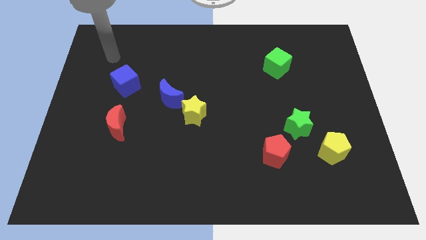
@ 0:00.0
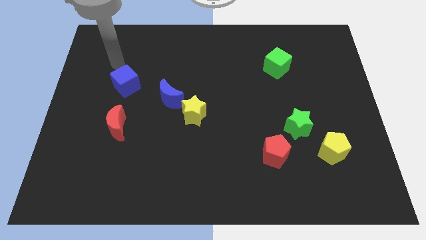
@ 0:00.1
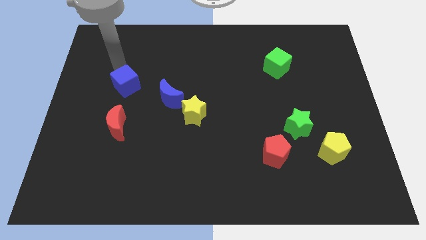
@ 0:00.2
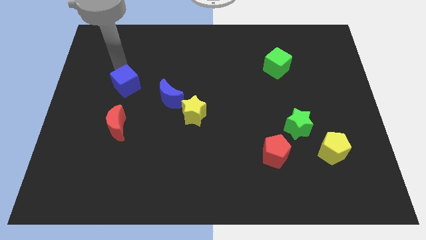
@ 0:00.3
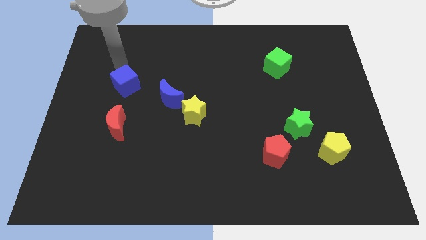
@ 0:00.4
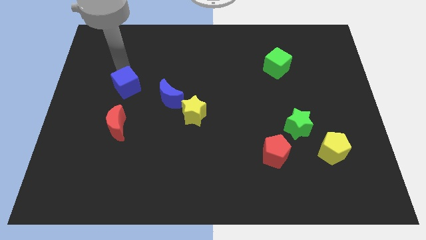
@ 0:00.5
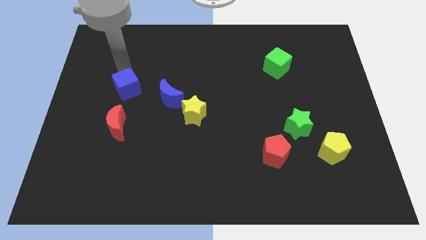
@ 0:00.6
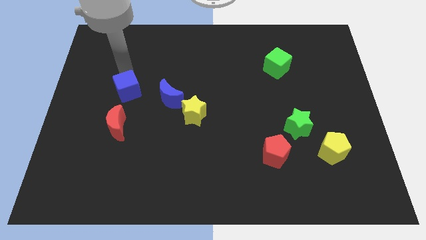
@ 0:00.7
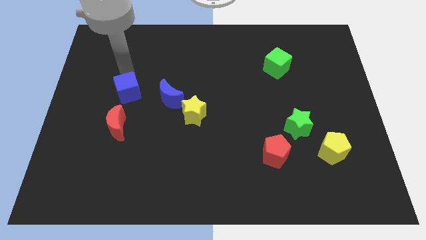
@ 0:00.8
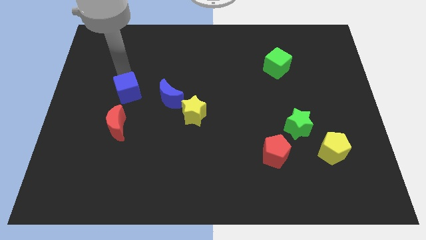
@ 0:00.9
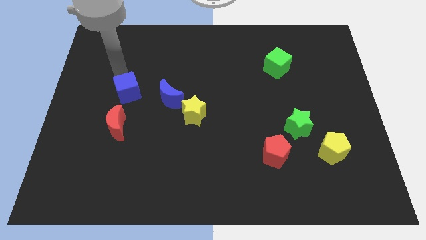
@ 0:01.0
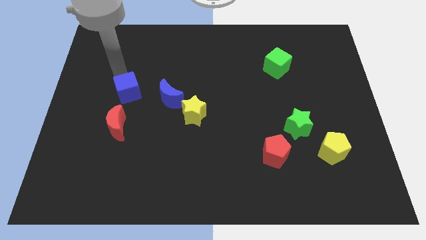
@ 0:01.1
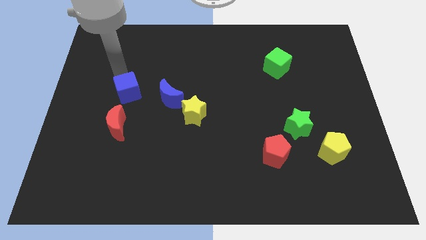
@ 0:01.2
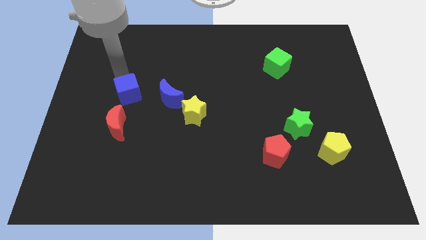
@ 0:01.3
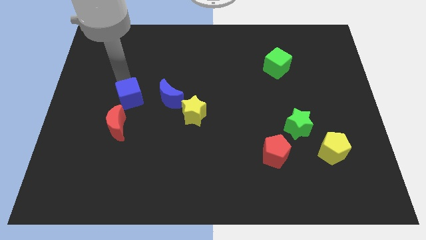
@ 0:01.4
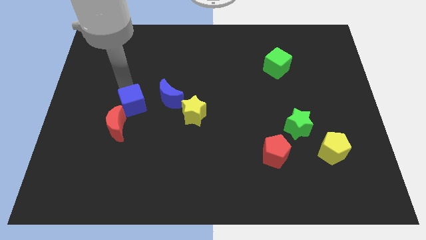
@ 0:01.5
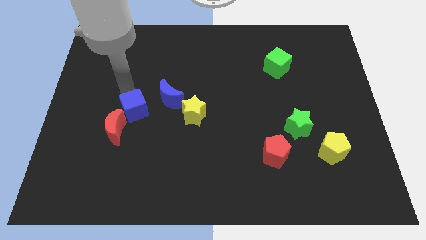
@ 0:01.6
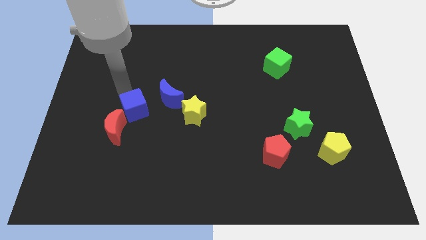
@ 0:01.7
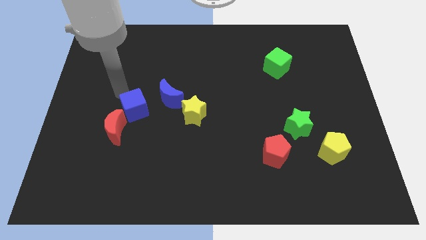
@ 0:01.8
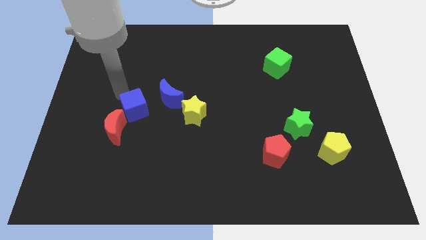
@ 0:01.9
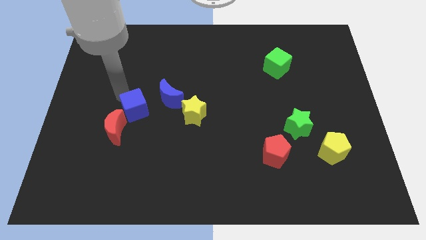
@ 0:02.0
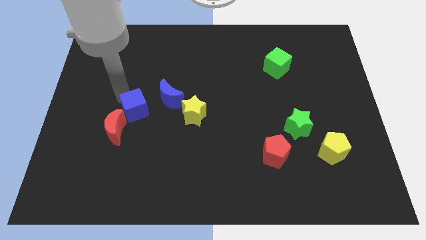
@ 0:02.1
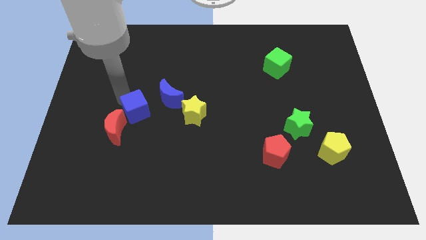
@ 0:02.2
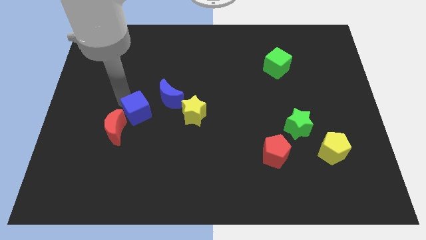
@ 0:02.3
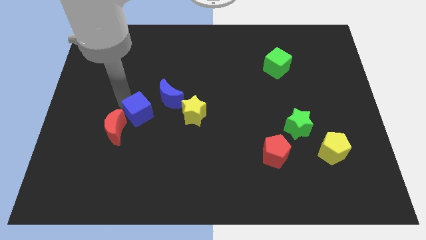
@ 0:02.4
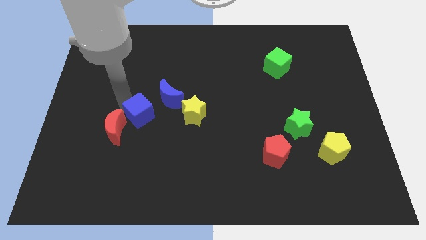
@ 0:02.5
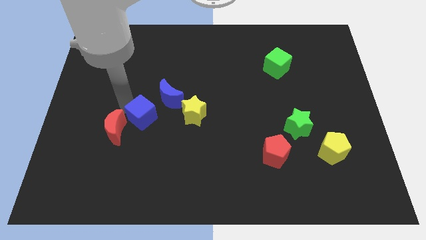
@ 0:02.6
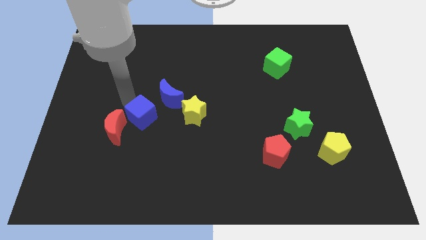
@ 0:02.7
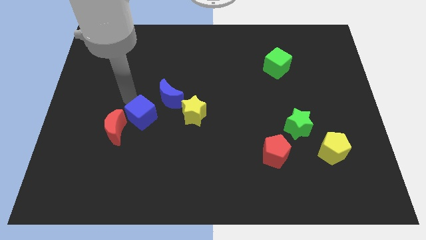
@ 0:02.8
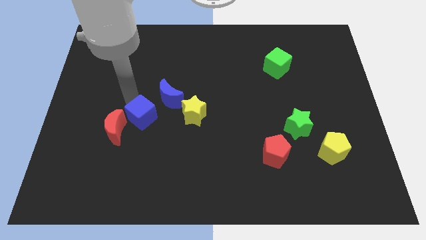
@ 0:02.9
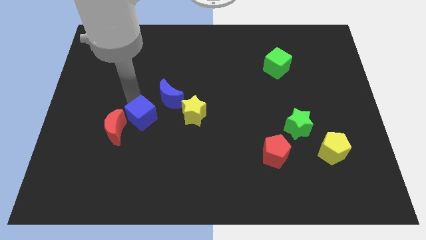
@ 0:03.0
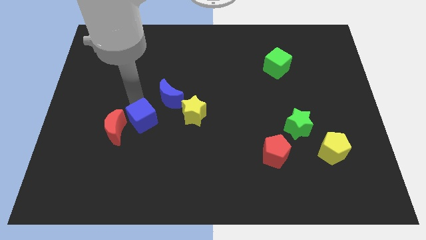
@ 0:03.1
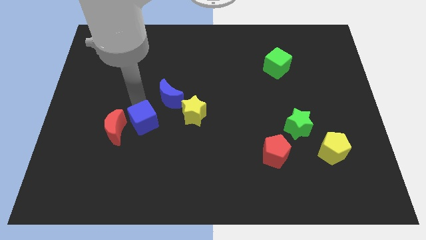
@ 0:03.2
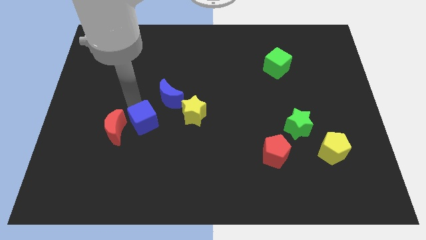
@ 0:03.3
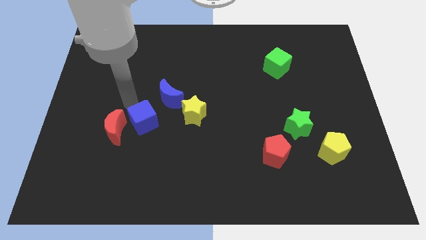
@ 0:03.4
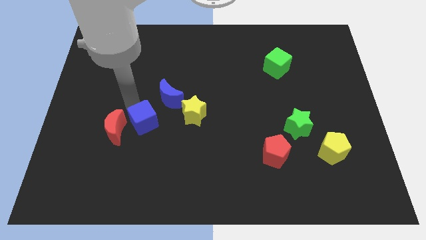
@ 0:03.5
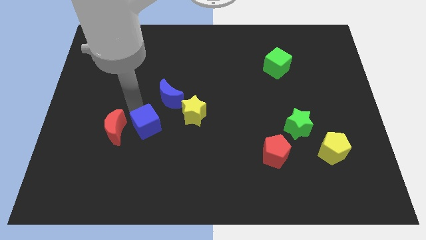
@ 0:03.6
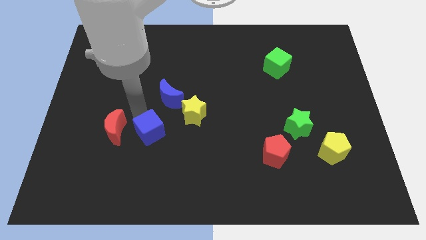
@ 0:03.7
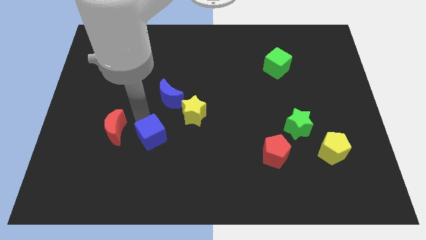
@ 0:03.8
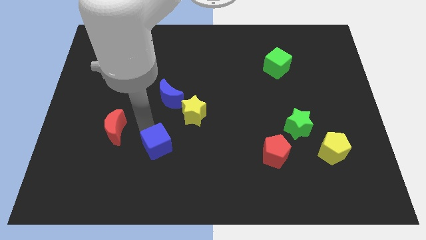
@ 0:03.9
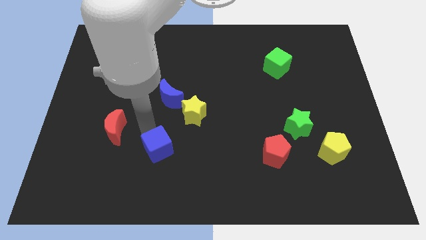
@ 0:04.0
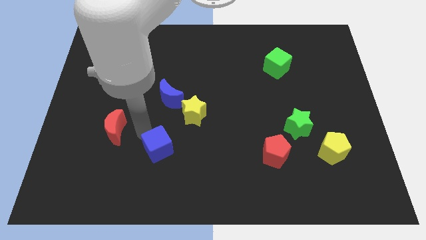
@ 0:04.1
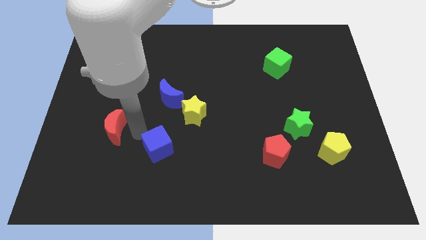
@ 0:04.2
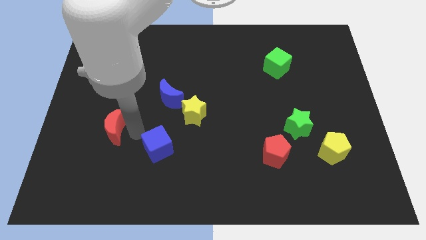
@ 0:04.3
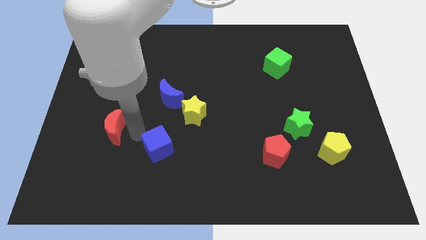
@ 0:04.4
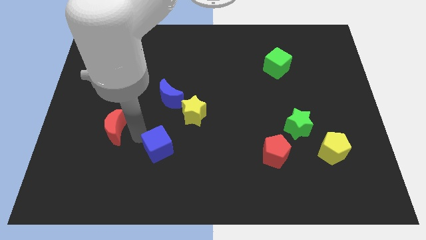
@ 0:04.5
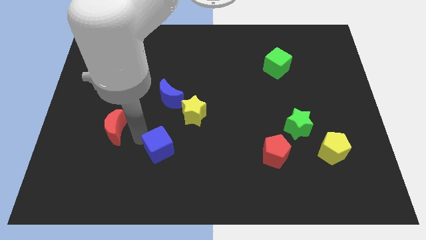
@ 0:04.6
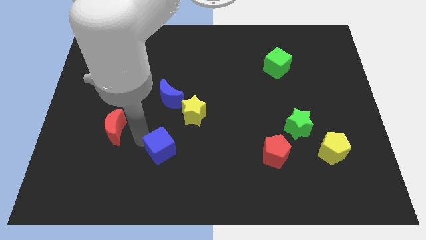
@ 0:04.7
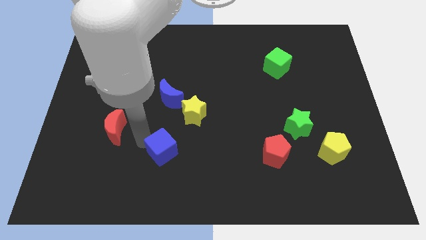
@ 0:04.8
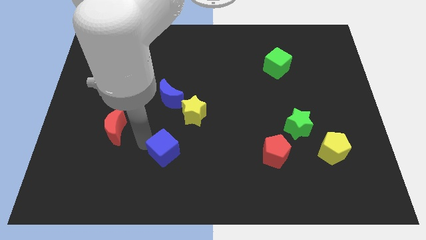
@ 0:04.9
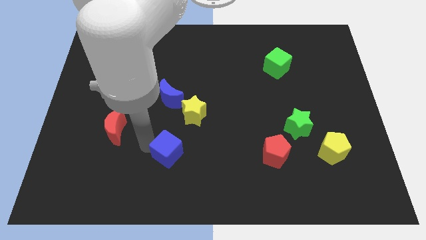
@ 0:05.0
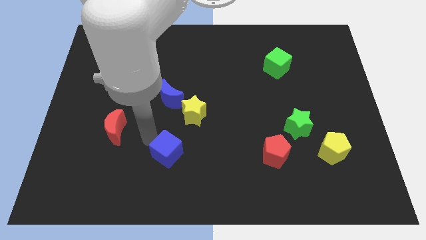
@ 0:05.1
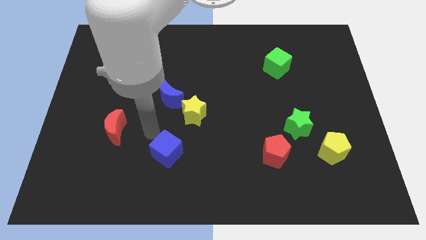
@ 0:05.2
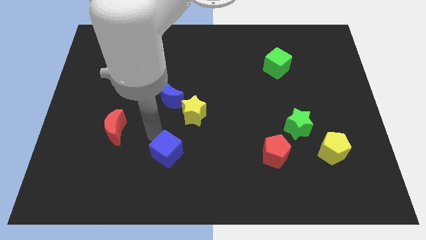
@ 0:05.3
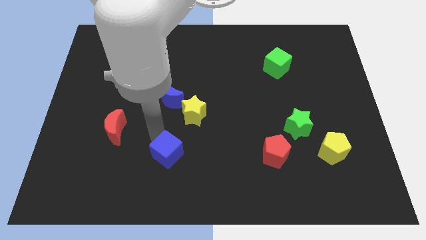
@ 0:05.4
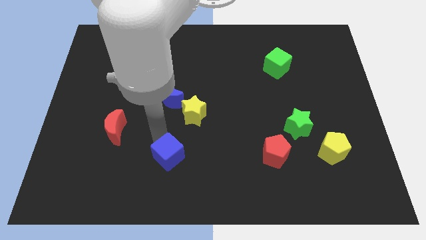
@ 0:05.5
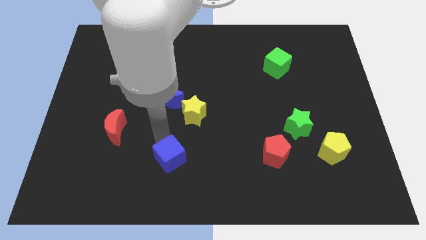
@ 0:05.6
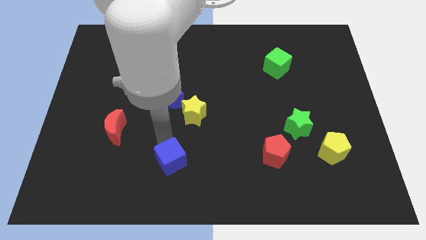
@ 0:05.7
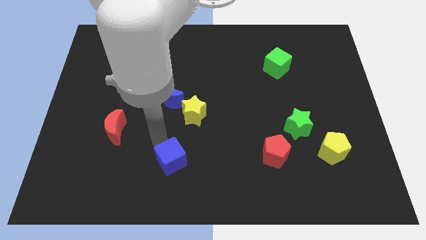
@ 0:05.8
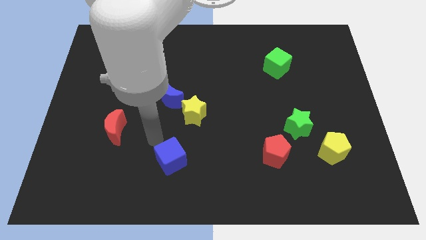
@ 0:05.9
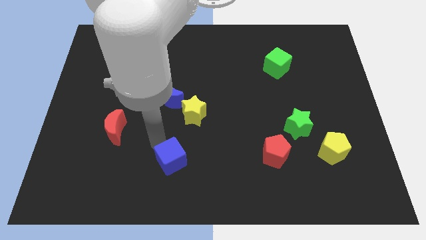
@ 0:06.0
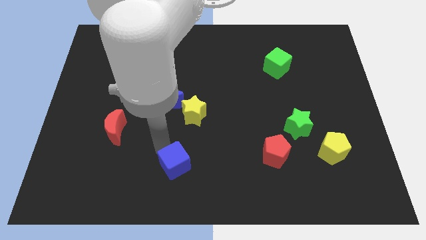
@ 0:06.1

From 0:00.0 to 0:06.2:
push the blue cube to the bottom

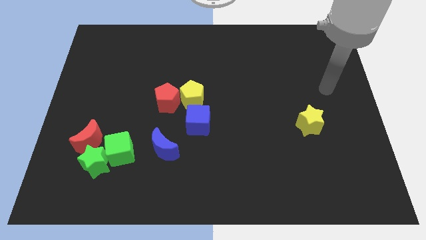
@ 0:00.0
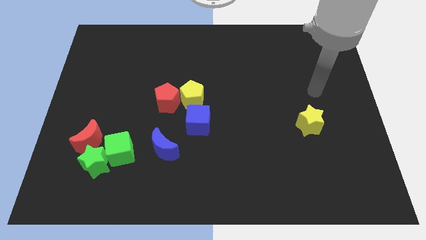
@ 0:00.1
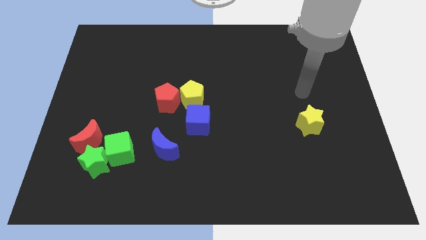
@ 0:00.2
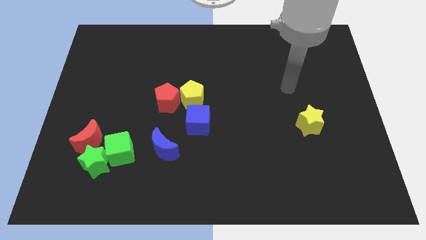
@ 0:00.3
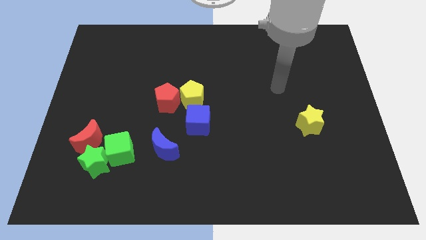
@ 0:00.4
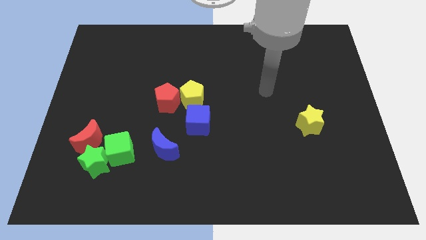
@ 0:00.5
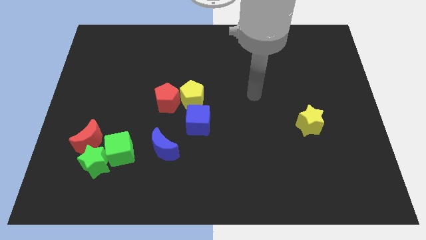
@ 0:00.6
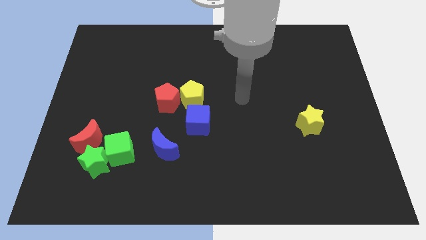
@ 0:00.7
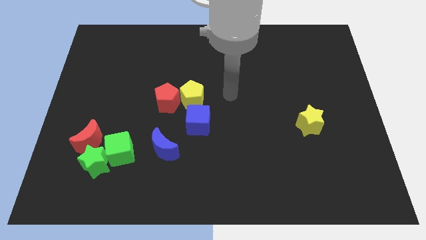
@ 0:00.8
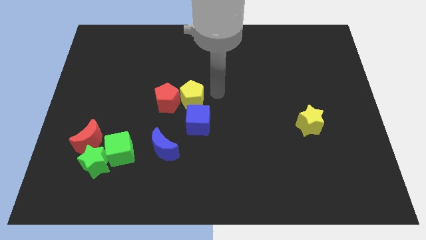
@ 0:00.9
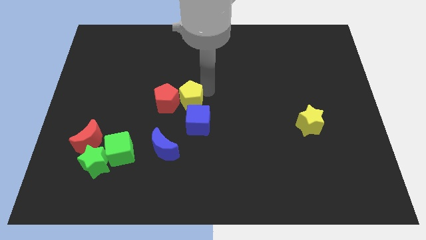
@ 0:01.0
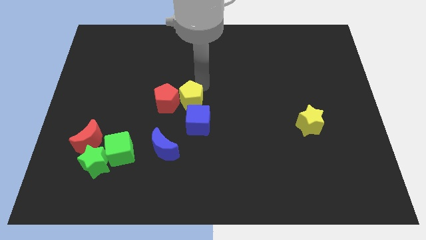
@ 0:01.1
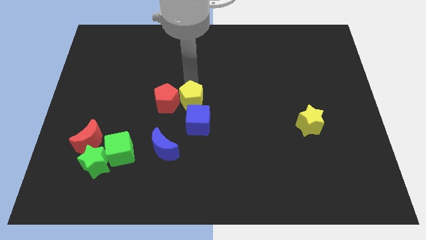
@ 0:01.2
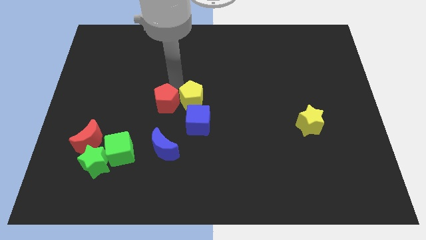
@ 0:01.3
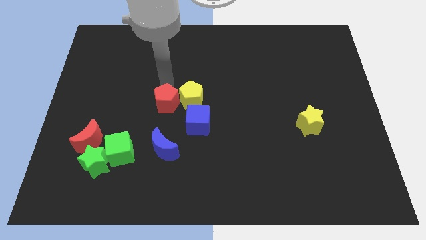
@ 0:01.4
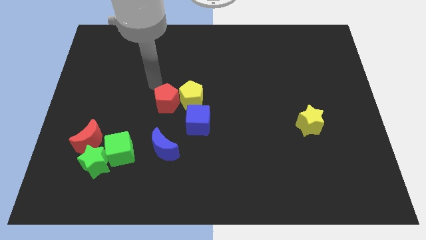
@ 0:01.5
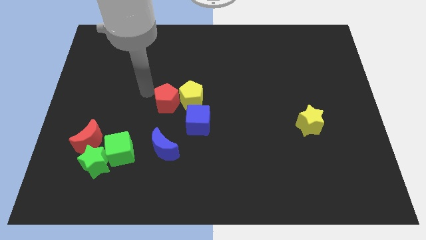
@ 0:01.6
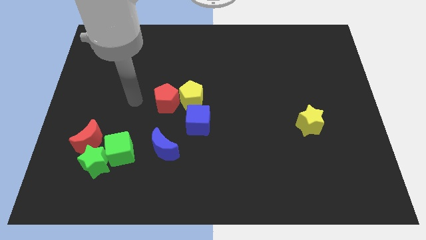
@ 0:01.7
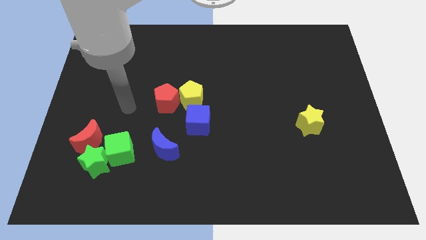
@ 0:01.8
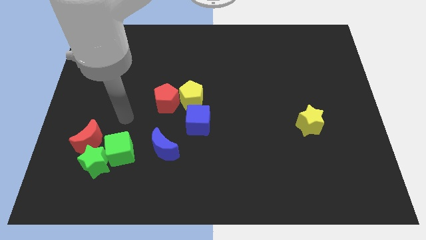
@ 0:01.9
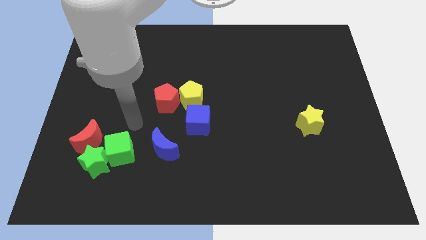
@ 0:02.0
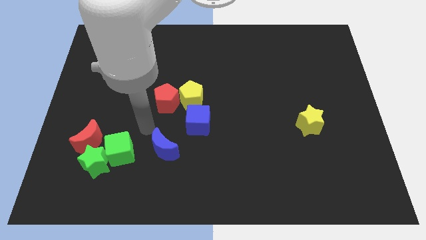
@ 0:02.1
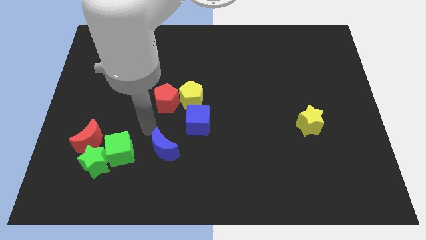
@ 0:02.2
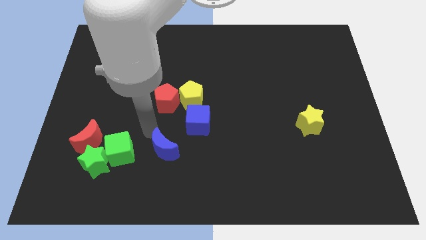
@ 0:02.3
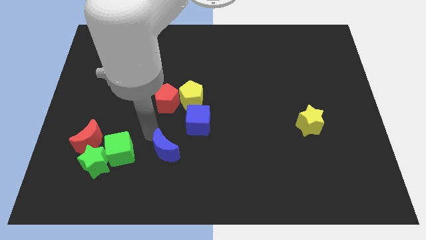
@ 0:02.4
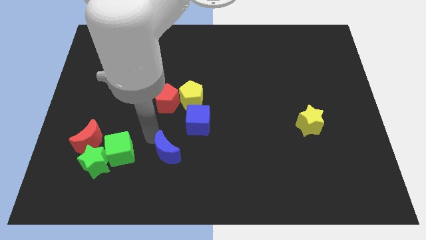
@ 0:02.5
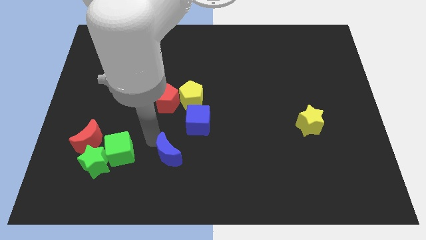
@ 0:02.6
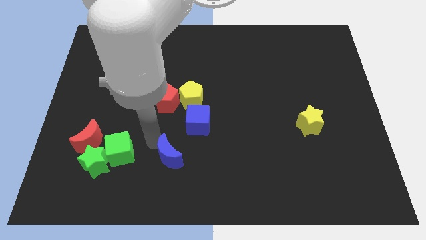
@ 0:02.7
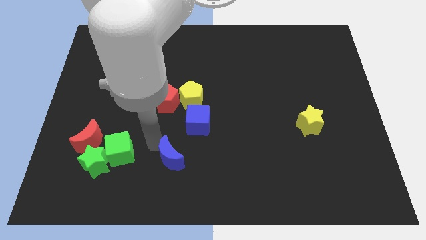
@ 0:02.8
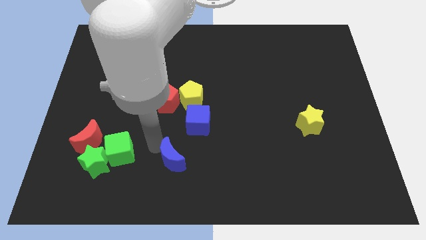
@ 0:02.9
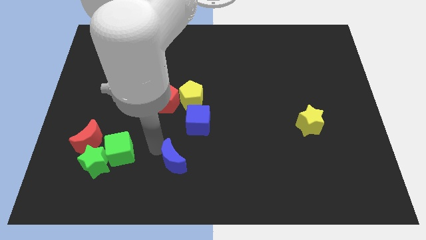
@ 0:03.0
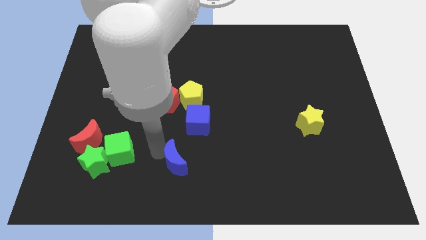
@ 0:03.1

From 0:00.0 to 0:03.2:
put the blue moon to the bottom
